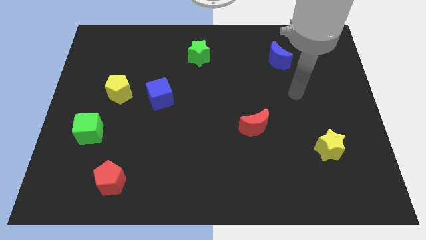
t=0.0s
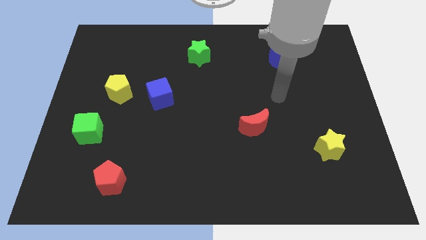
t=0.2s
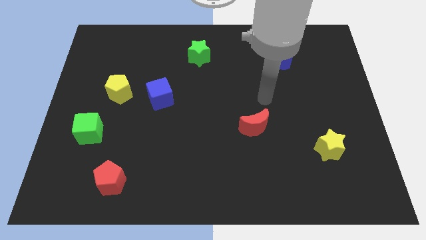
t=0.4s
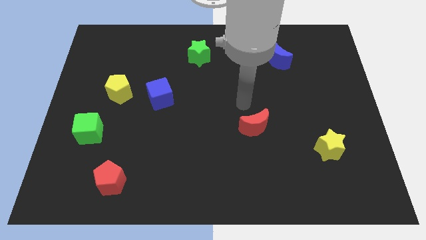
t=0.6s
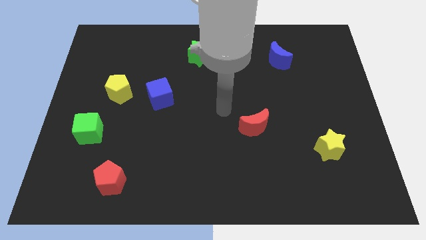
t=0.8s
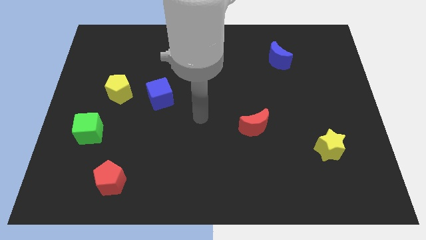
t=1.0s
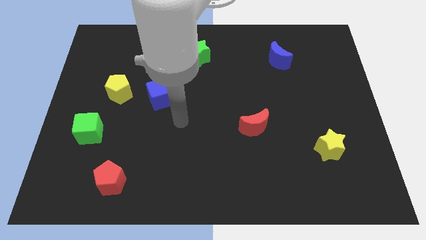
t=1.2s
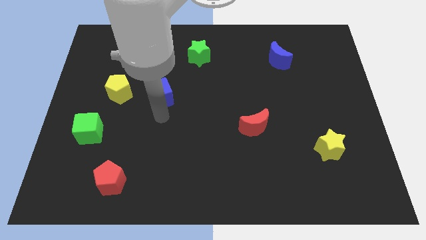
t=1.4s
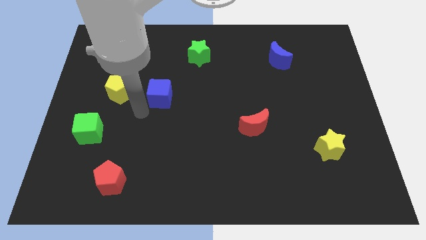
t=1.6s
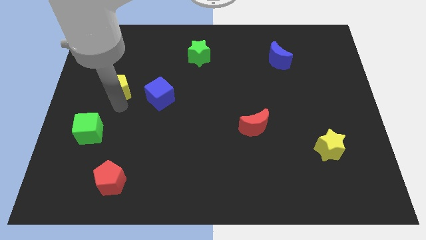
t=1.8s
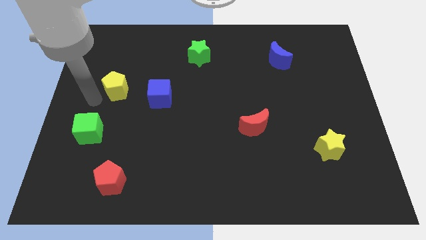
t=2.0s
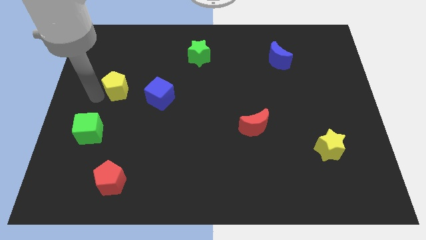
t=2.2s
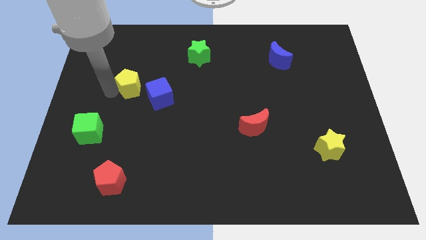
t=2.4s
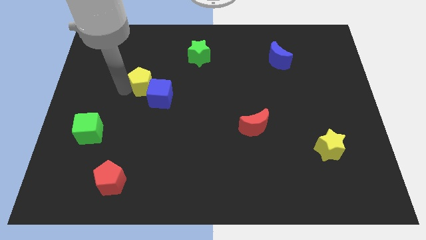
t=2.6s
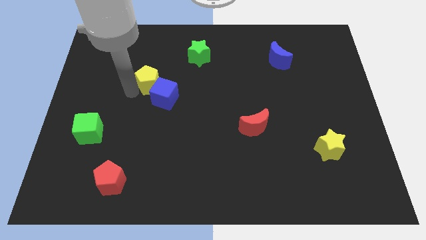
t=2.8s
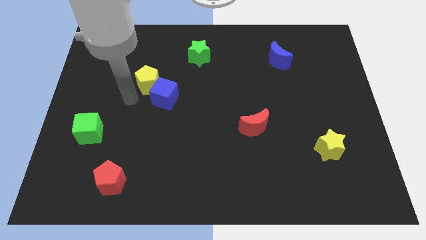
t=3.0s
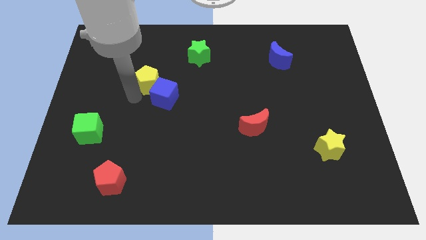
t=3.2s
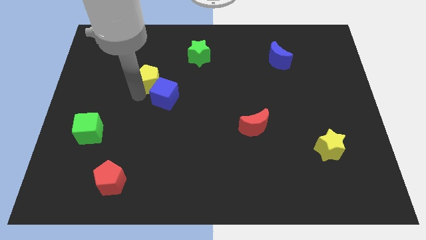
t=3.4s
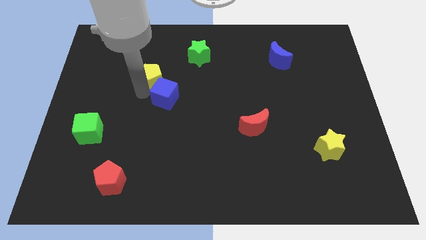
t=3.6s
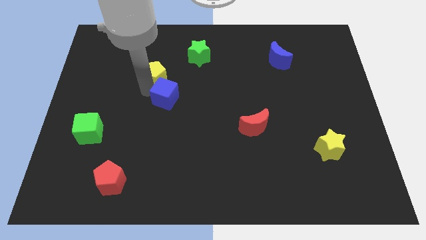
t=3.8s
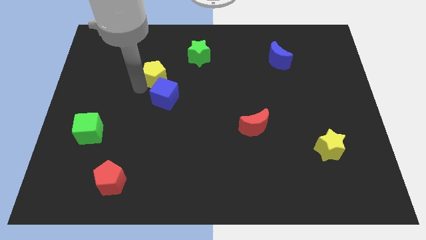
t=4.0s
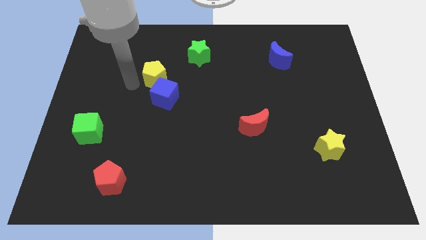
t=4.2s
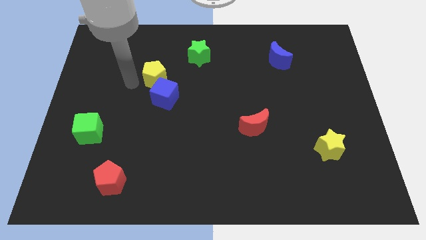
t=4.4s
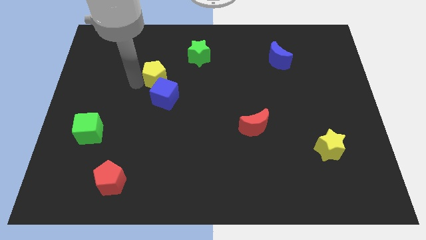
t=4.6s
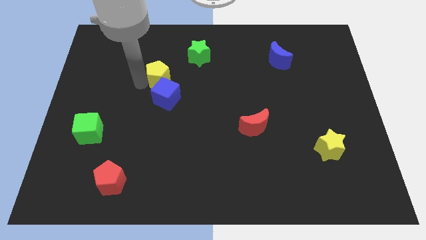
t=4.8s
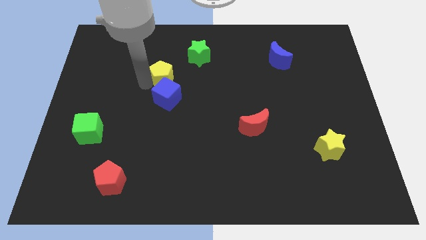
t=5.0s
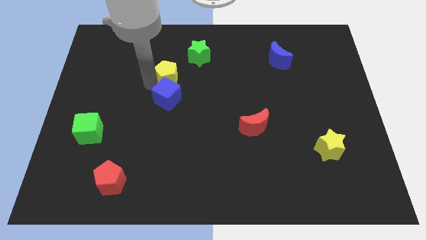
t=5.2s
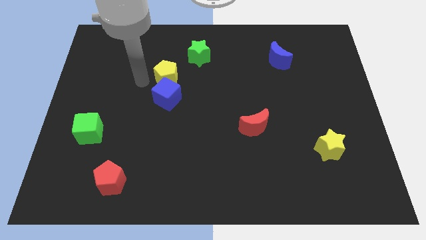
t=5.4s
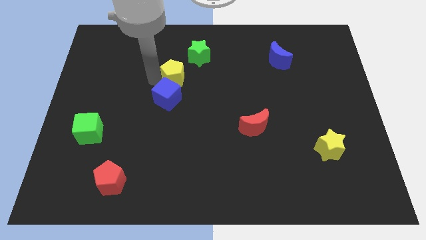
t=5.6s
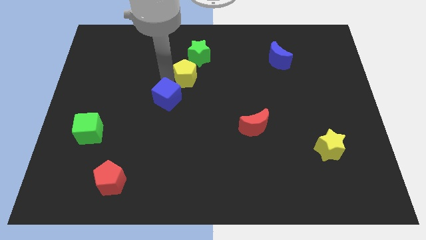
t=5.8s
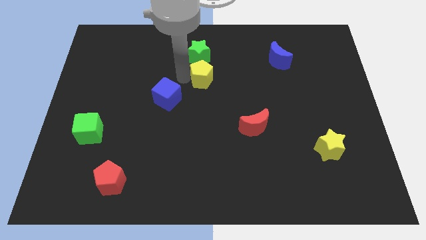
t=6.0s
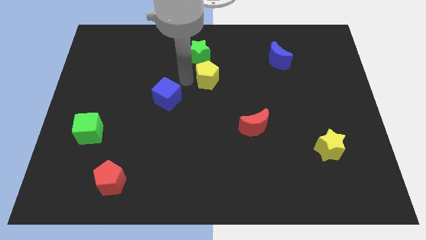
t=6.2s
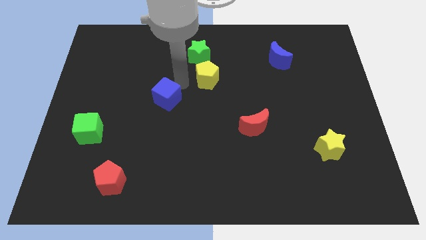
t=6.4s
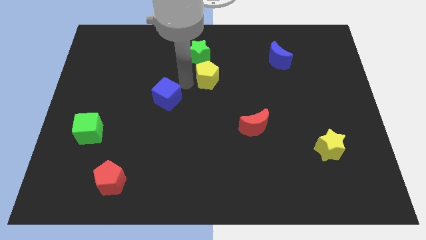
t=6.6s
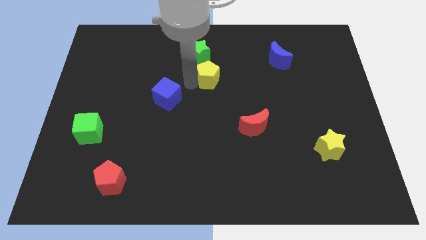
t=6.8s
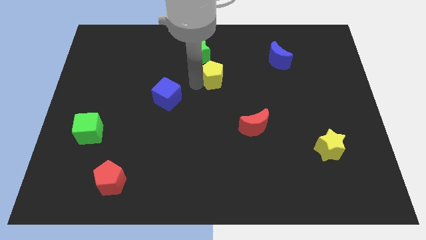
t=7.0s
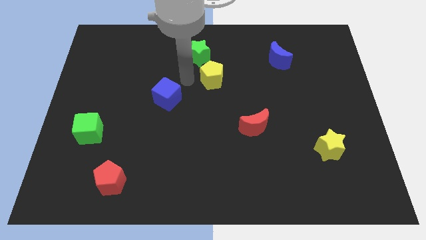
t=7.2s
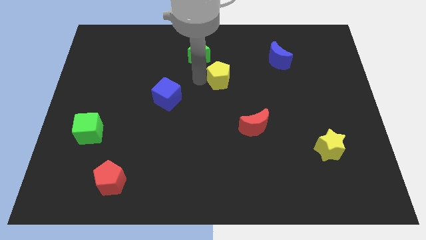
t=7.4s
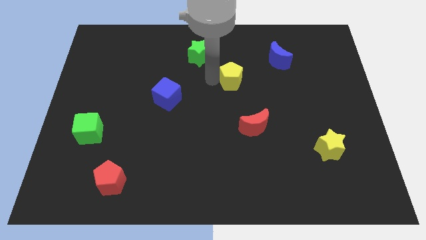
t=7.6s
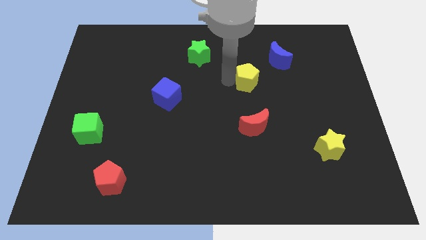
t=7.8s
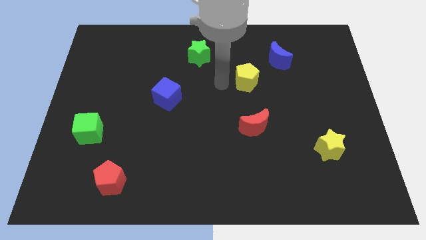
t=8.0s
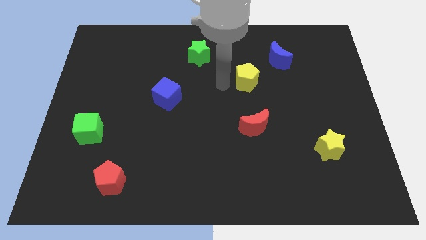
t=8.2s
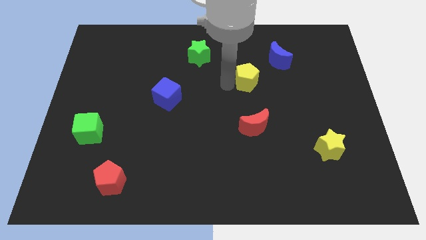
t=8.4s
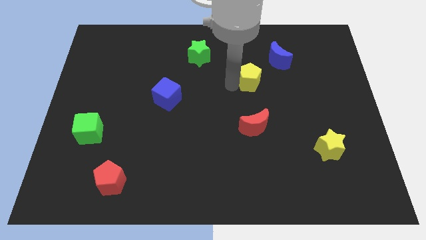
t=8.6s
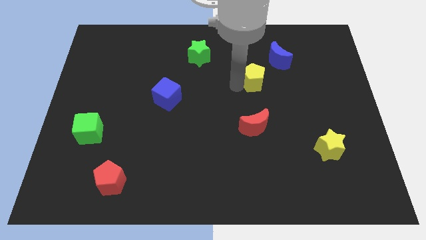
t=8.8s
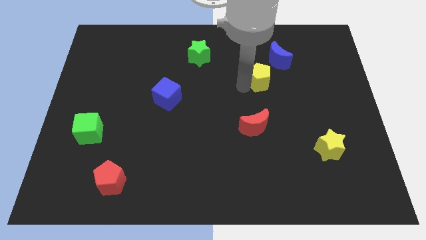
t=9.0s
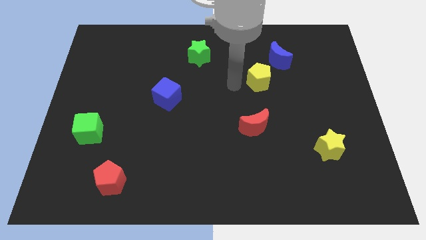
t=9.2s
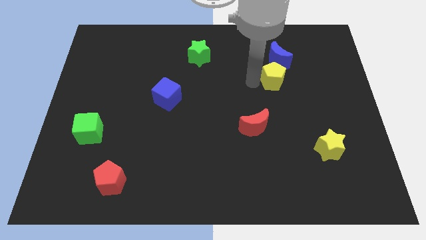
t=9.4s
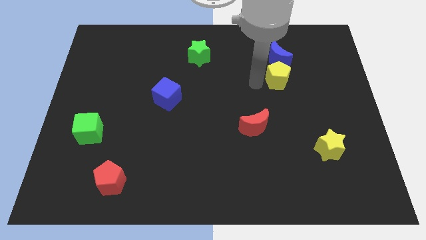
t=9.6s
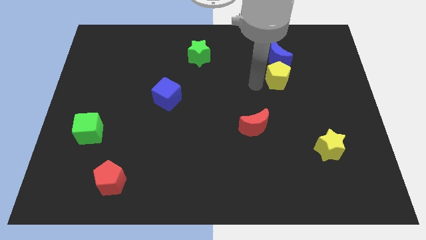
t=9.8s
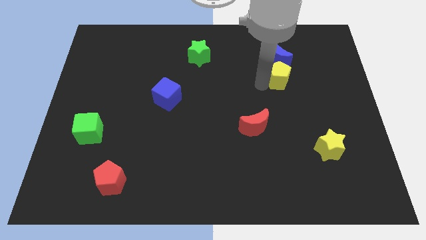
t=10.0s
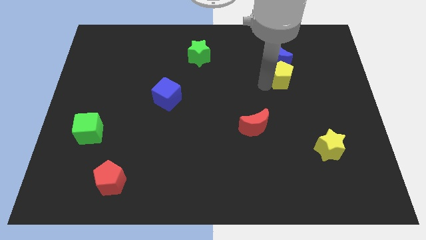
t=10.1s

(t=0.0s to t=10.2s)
push the yellow pentagon to the bottom right side of the blue moon
